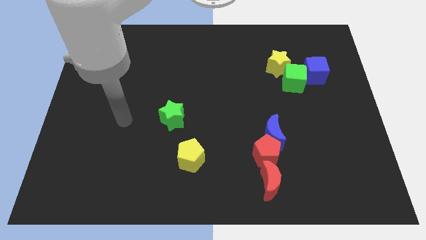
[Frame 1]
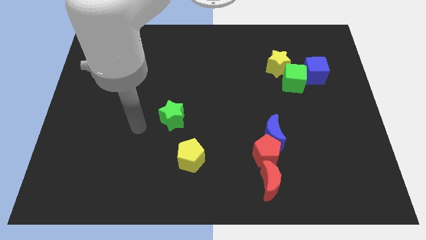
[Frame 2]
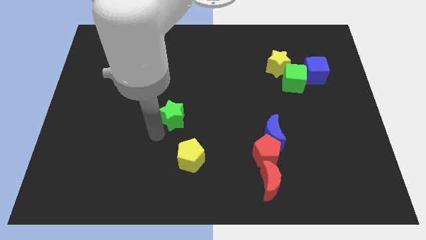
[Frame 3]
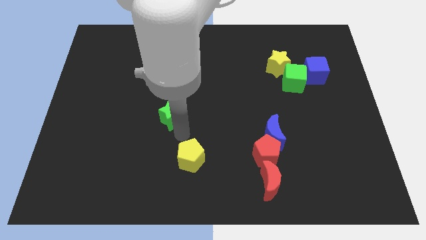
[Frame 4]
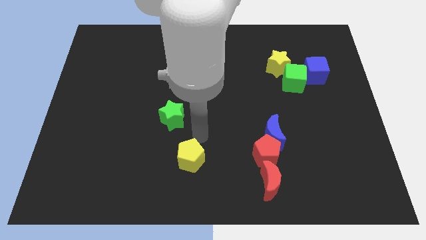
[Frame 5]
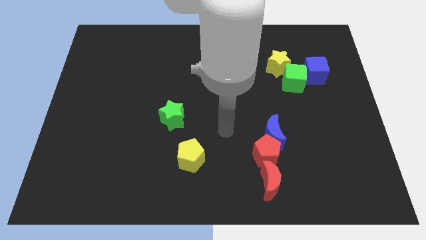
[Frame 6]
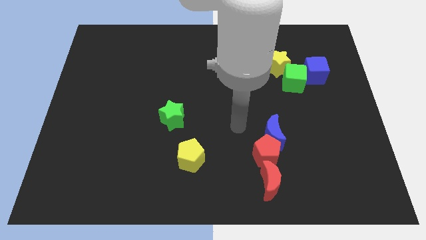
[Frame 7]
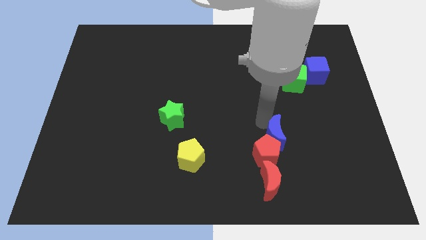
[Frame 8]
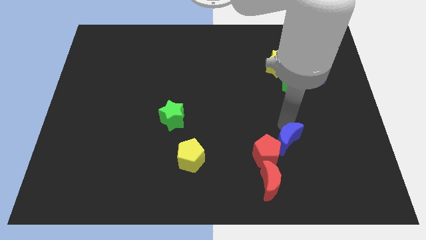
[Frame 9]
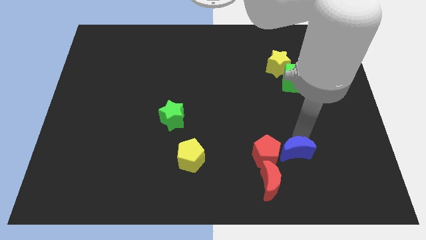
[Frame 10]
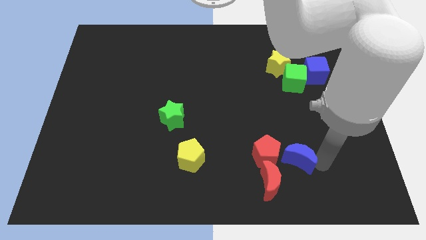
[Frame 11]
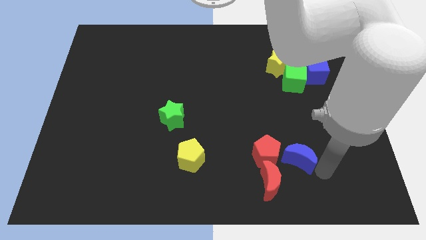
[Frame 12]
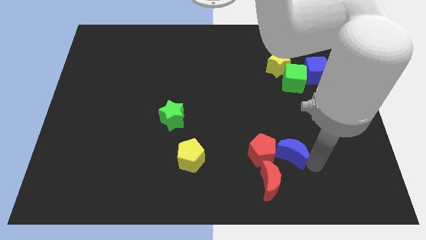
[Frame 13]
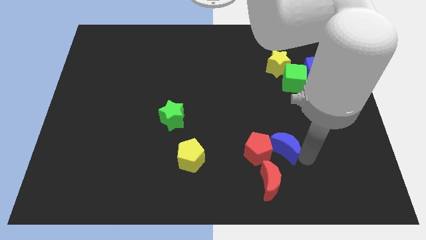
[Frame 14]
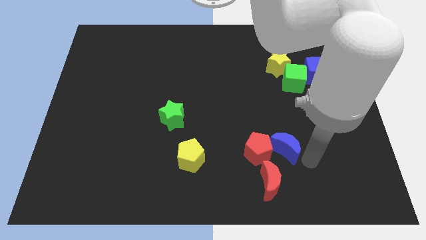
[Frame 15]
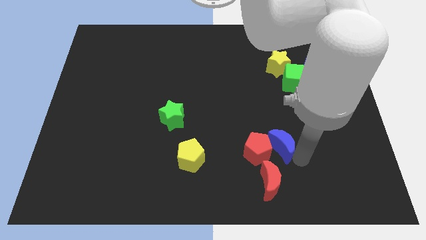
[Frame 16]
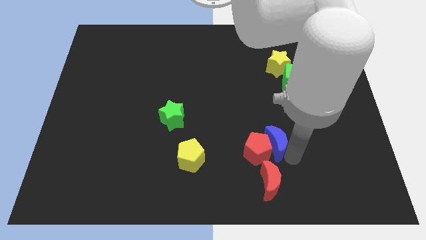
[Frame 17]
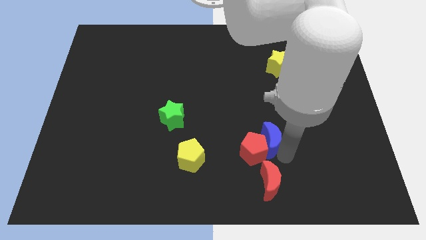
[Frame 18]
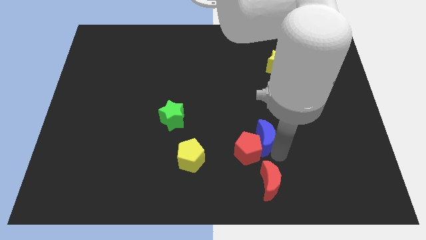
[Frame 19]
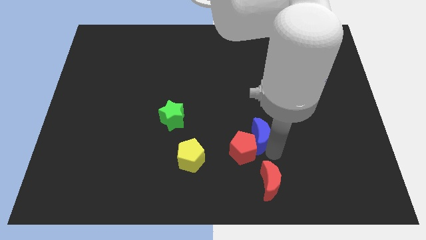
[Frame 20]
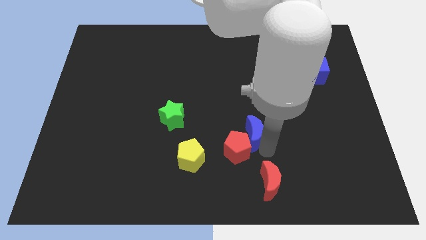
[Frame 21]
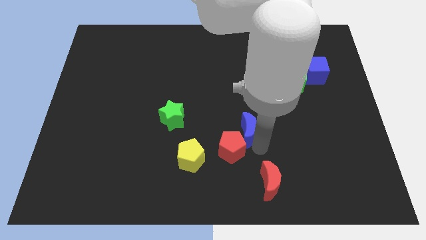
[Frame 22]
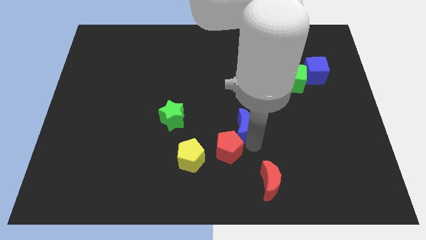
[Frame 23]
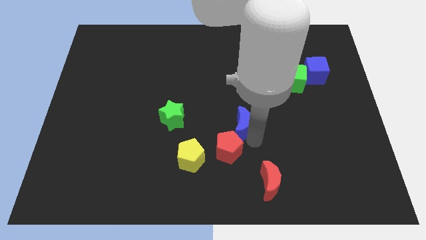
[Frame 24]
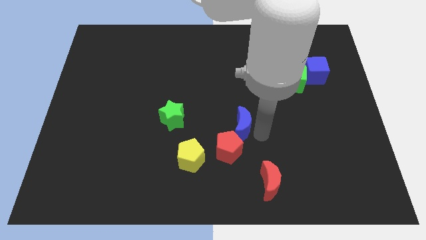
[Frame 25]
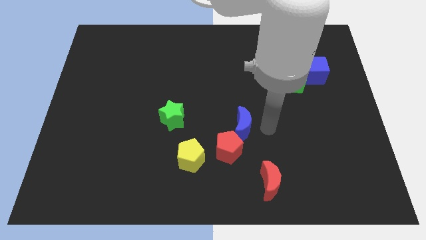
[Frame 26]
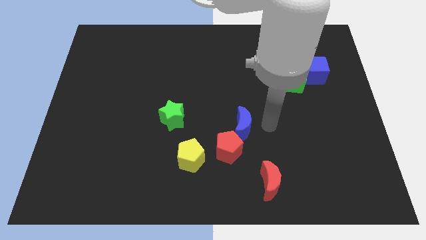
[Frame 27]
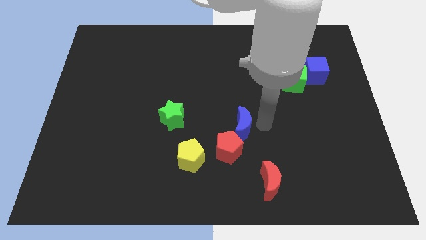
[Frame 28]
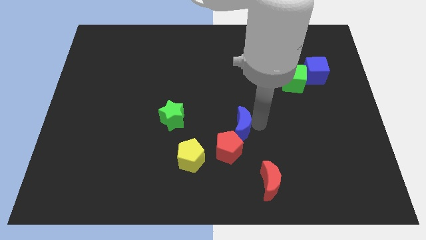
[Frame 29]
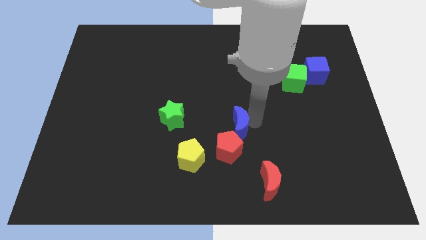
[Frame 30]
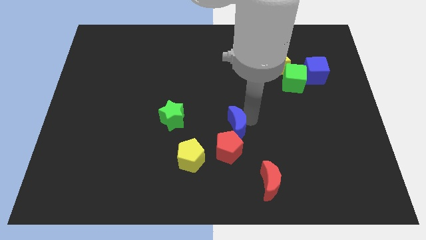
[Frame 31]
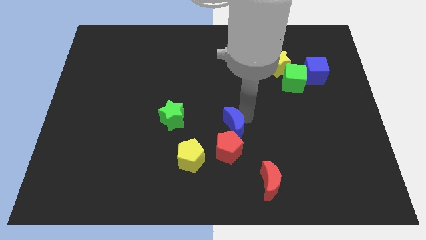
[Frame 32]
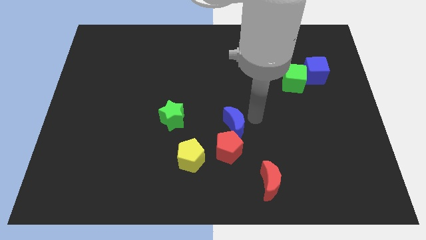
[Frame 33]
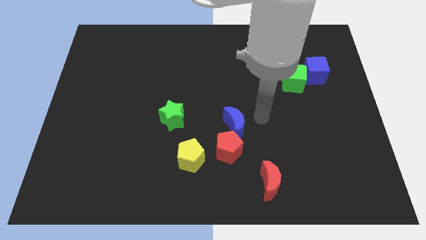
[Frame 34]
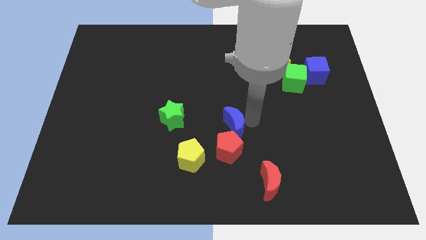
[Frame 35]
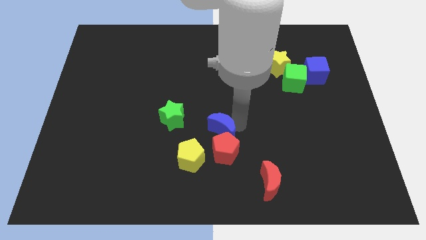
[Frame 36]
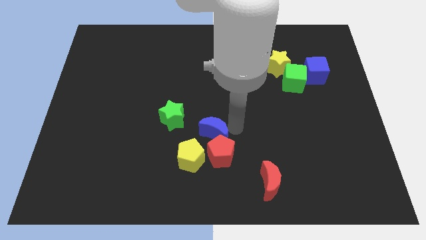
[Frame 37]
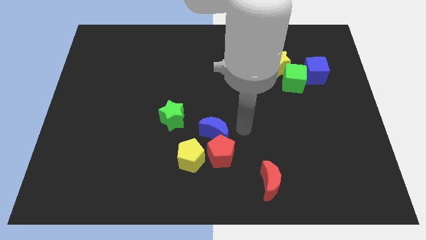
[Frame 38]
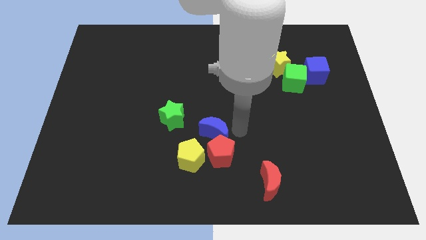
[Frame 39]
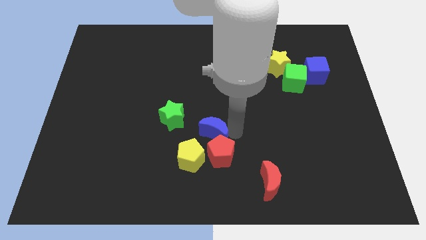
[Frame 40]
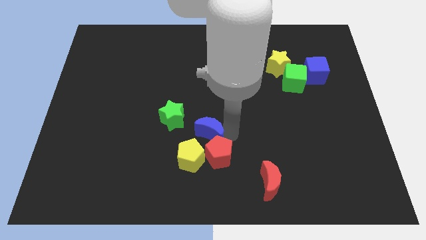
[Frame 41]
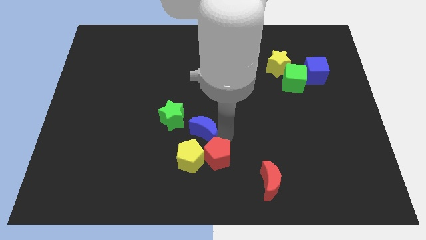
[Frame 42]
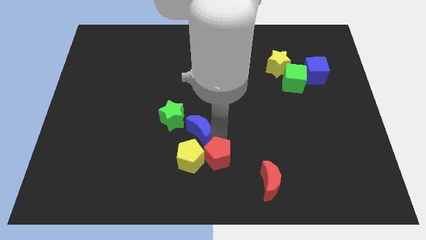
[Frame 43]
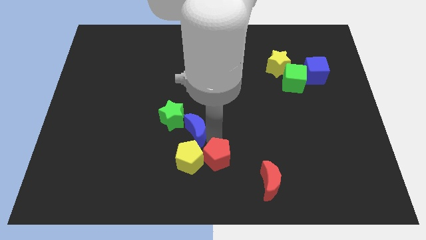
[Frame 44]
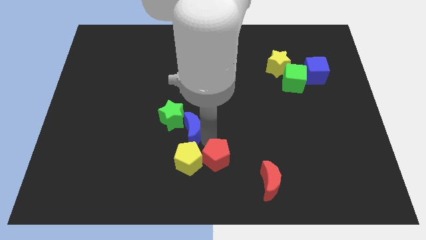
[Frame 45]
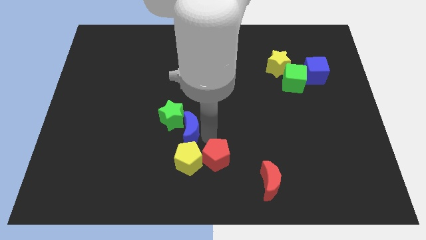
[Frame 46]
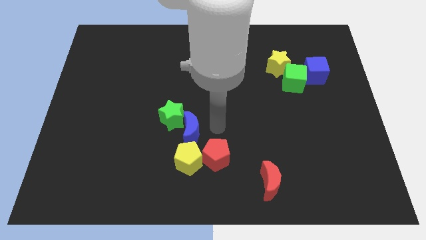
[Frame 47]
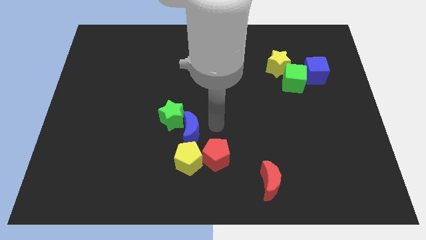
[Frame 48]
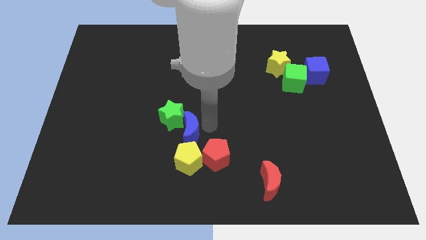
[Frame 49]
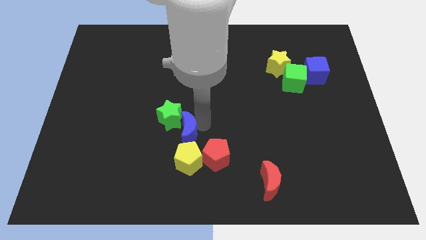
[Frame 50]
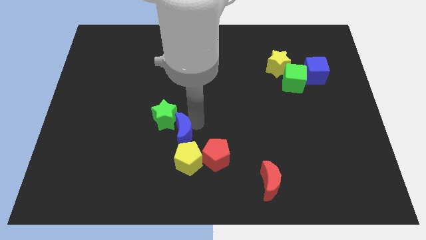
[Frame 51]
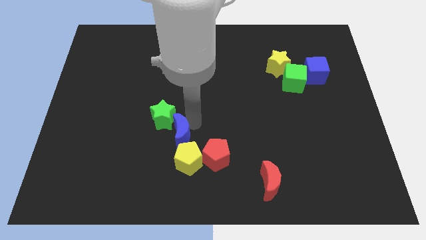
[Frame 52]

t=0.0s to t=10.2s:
push the blue moon to the left

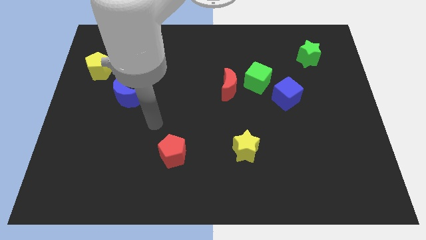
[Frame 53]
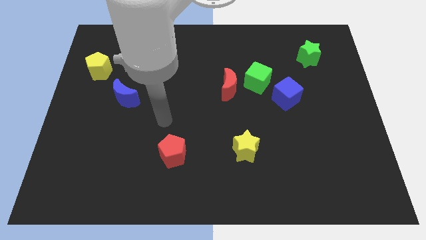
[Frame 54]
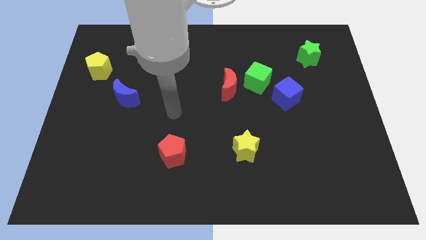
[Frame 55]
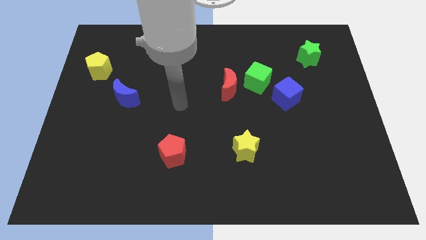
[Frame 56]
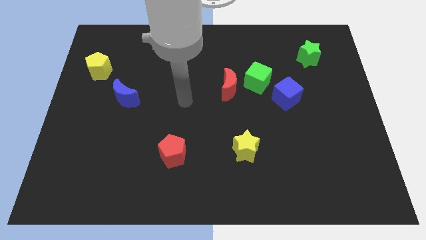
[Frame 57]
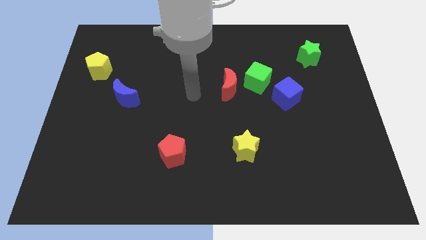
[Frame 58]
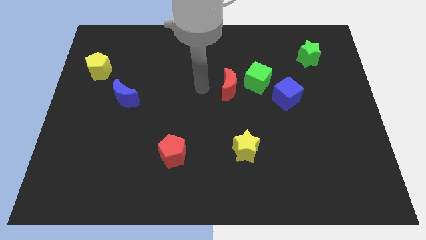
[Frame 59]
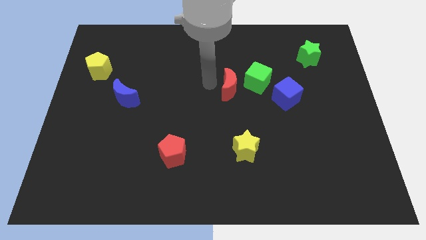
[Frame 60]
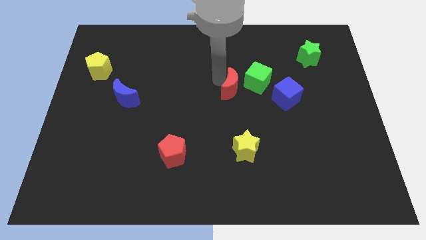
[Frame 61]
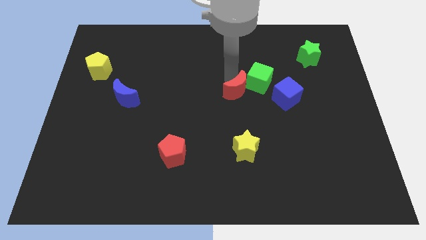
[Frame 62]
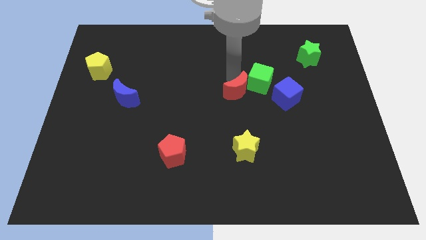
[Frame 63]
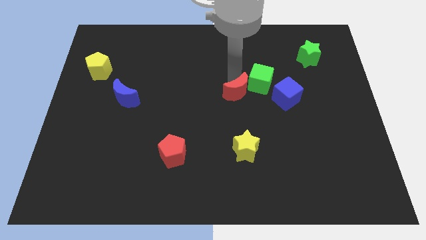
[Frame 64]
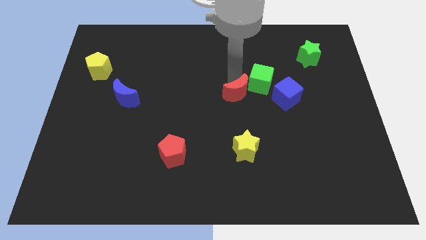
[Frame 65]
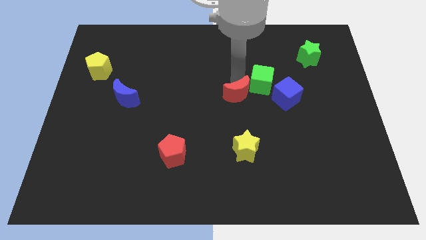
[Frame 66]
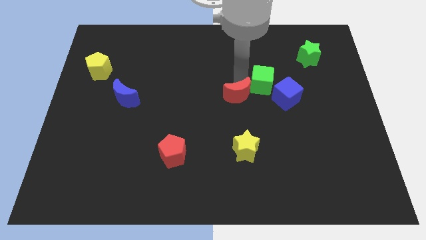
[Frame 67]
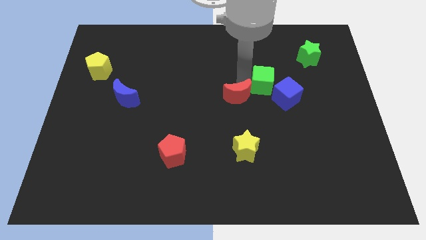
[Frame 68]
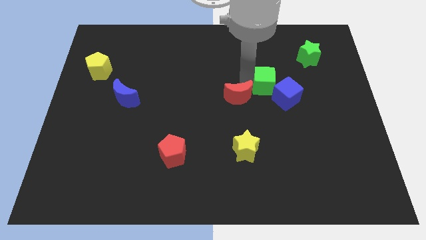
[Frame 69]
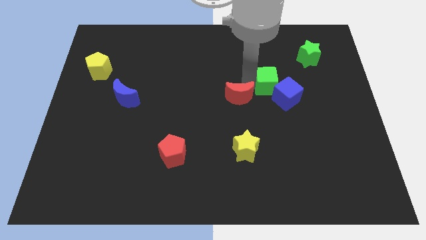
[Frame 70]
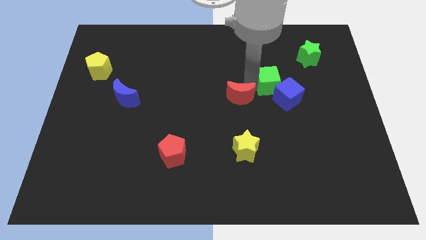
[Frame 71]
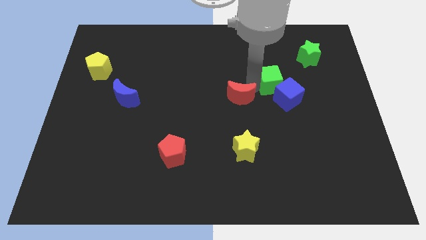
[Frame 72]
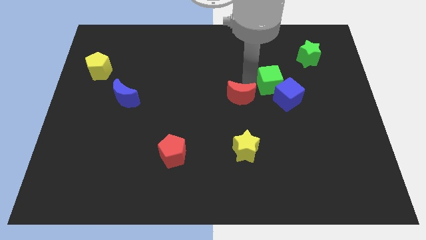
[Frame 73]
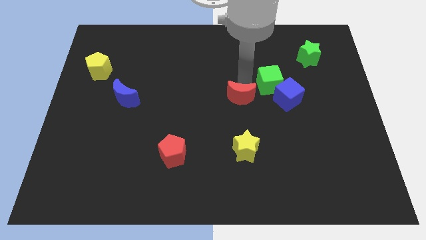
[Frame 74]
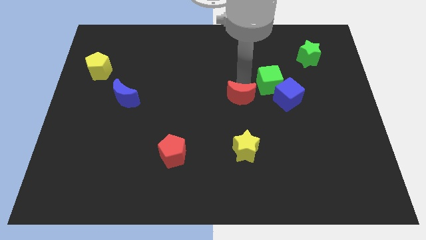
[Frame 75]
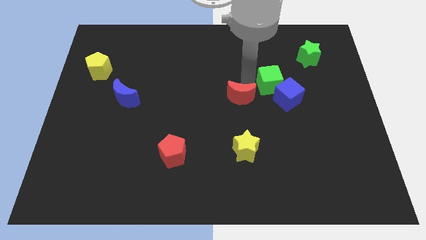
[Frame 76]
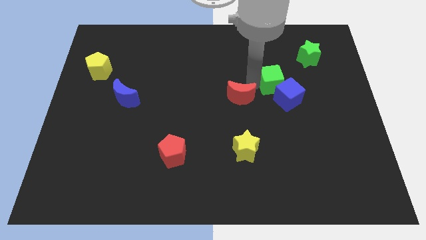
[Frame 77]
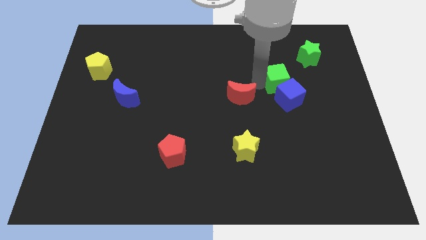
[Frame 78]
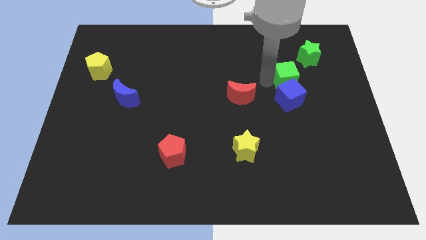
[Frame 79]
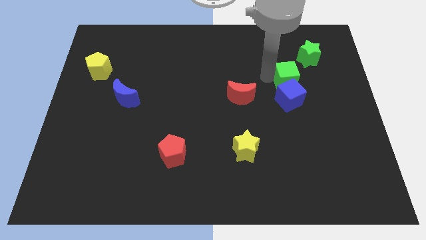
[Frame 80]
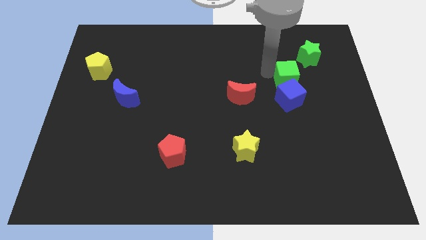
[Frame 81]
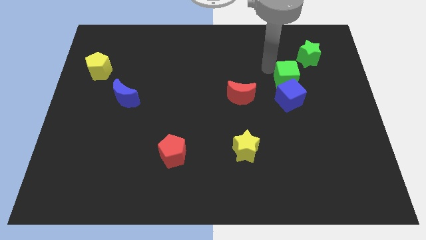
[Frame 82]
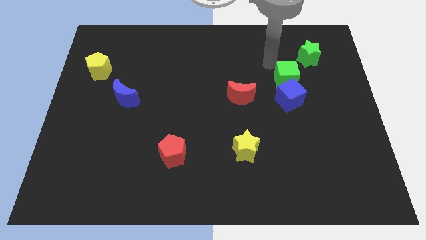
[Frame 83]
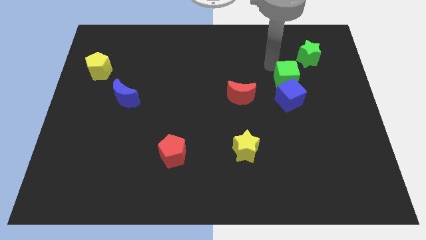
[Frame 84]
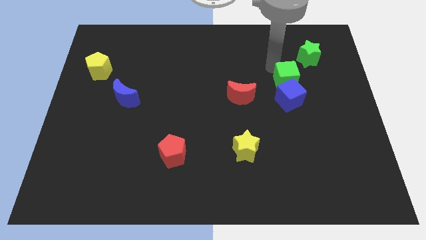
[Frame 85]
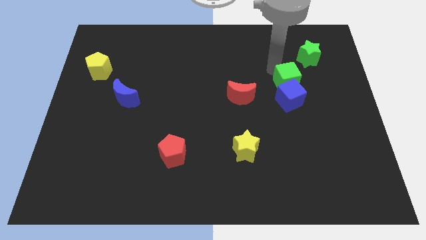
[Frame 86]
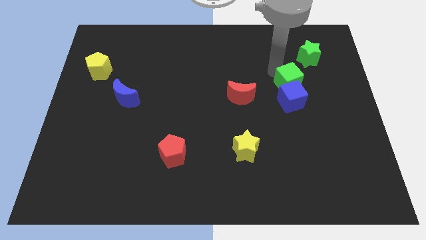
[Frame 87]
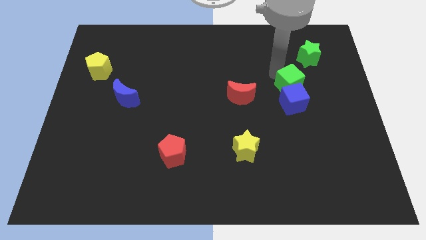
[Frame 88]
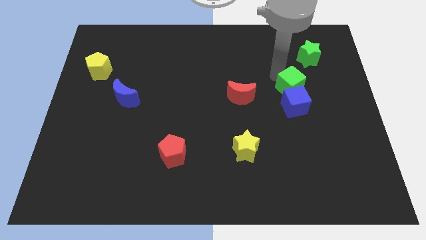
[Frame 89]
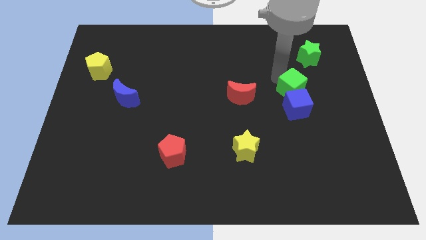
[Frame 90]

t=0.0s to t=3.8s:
move the green cube downwards and then to the right a little bit
